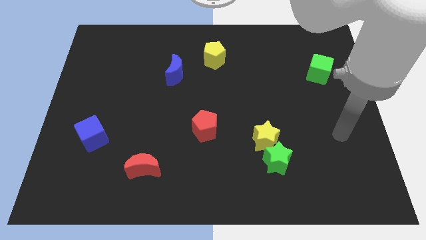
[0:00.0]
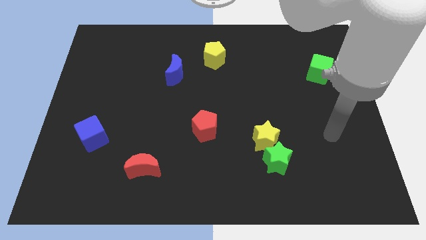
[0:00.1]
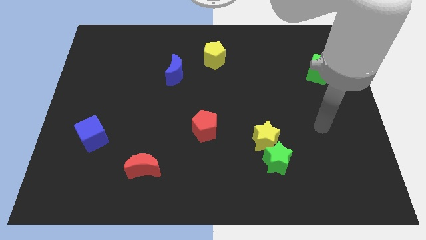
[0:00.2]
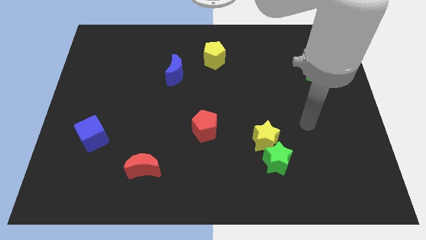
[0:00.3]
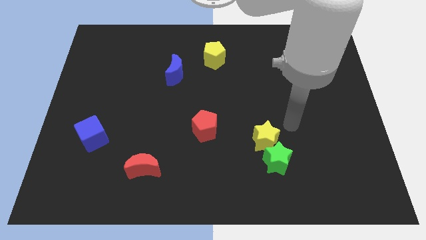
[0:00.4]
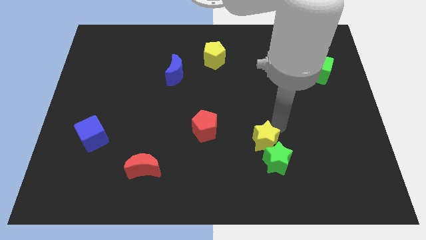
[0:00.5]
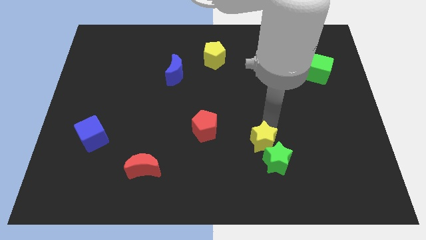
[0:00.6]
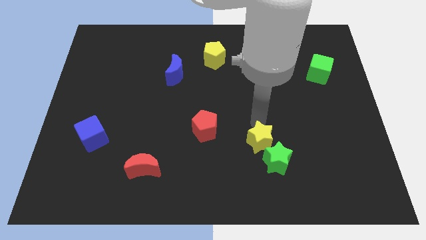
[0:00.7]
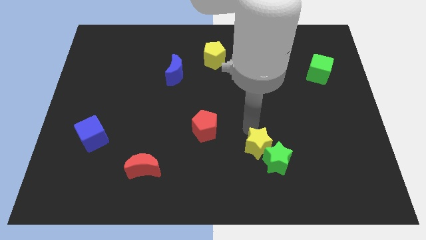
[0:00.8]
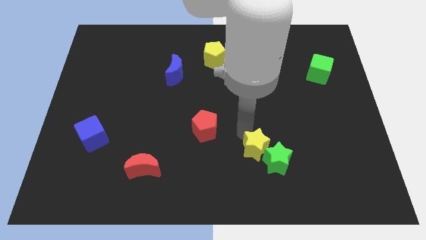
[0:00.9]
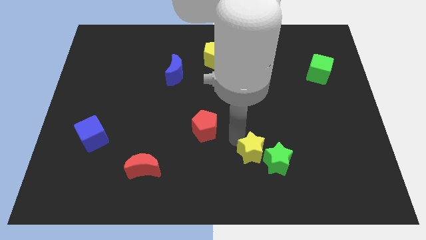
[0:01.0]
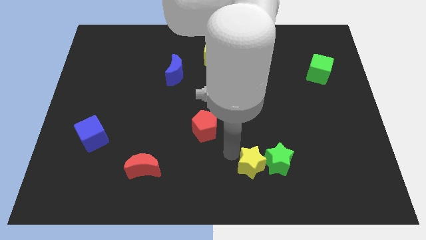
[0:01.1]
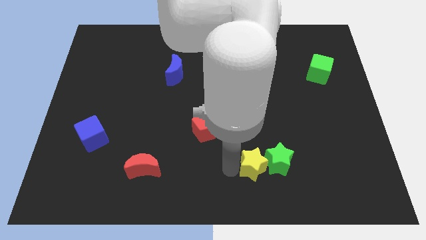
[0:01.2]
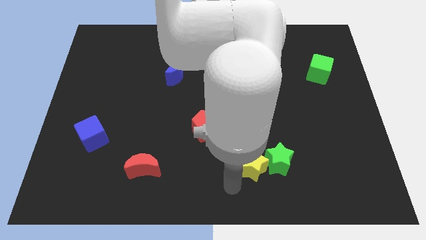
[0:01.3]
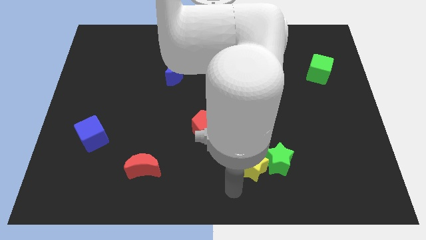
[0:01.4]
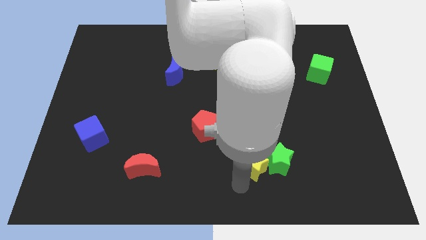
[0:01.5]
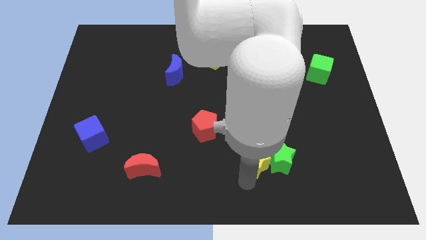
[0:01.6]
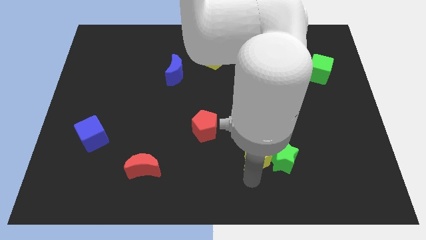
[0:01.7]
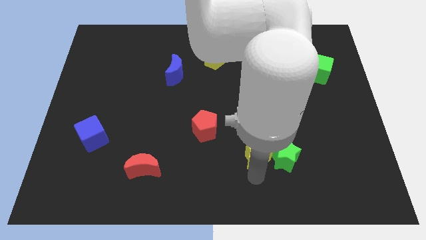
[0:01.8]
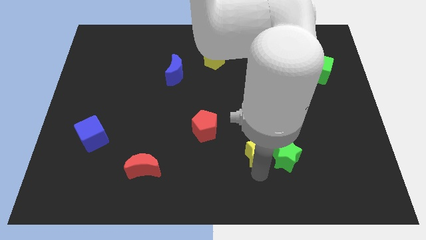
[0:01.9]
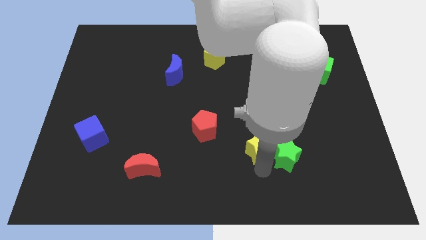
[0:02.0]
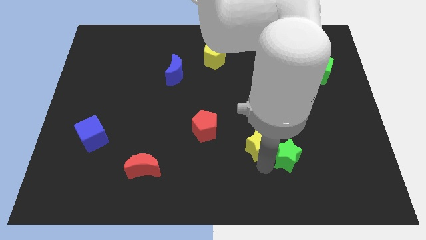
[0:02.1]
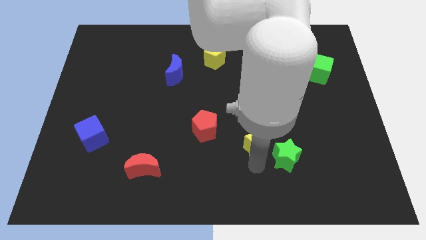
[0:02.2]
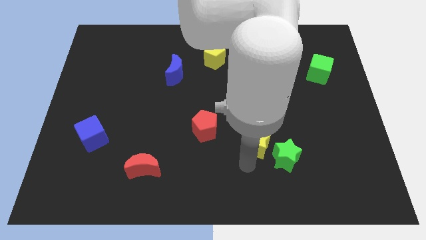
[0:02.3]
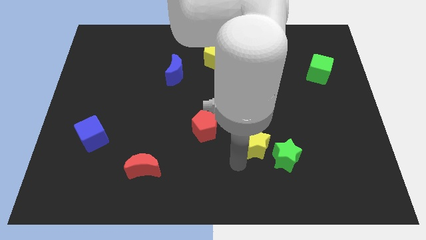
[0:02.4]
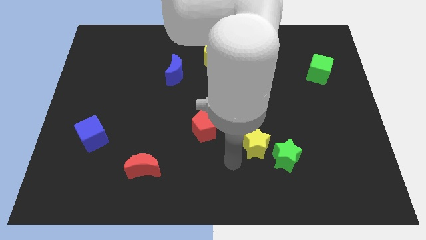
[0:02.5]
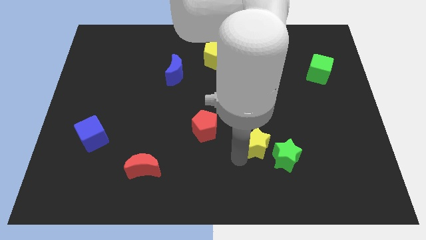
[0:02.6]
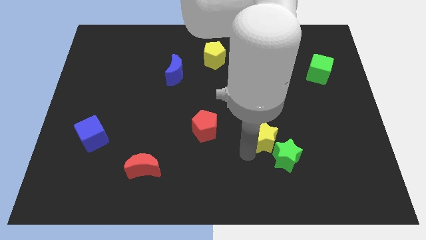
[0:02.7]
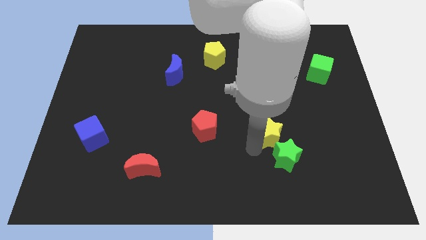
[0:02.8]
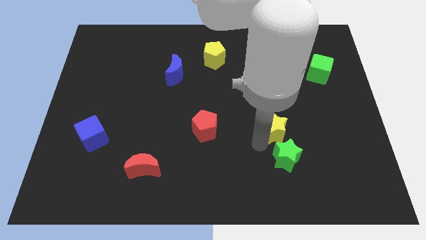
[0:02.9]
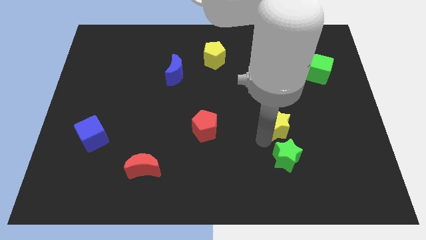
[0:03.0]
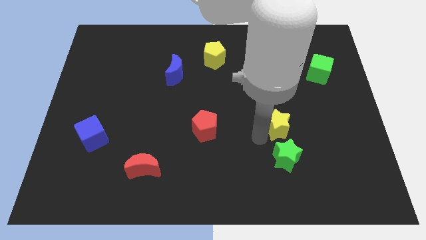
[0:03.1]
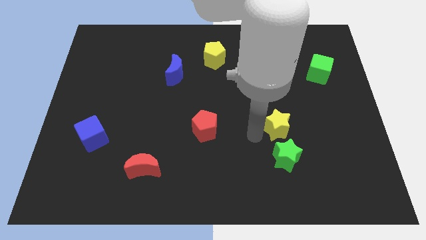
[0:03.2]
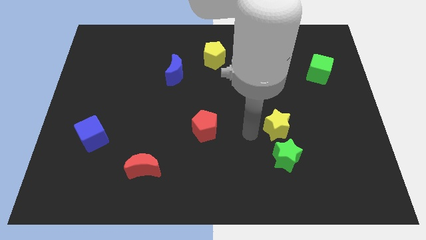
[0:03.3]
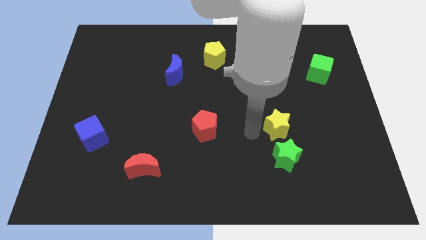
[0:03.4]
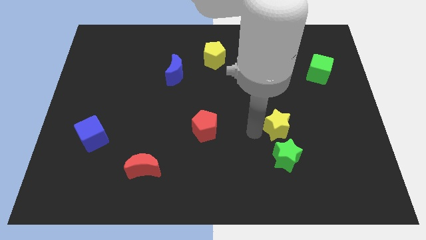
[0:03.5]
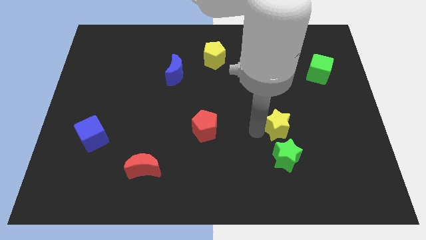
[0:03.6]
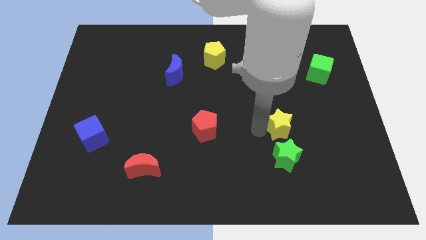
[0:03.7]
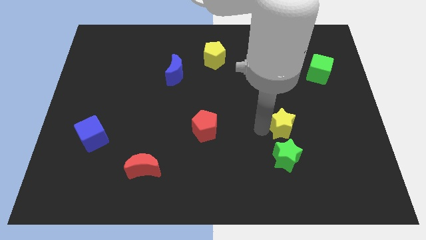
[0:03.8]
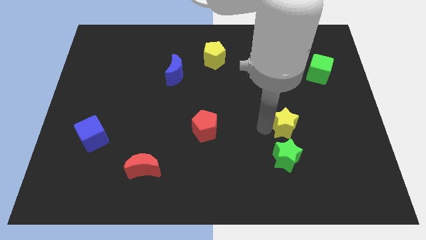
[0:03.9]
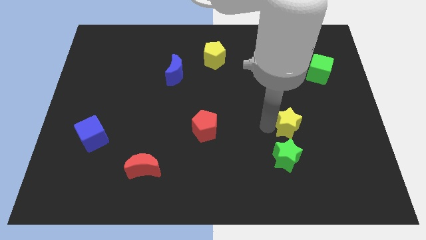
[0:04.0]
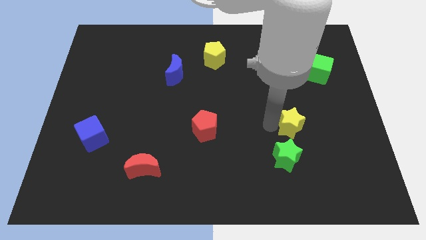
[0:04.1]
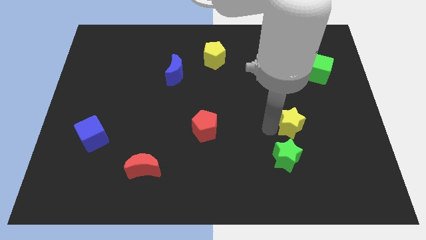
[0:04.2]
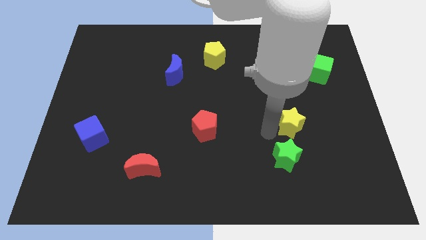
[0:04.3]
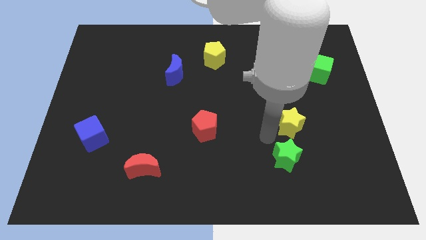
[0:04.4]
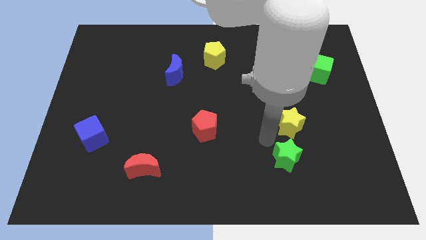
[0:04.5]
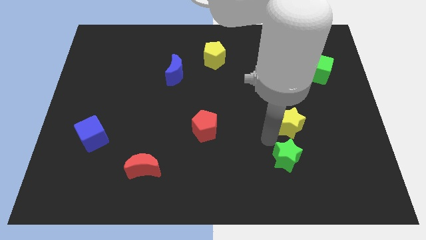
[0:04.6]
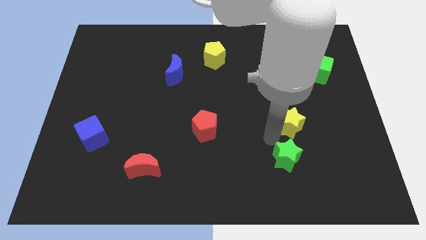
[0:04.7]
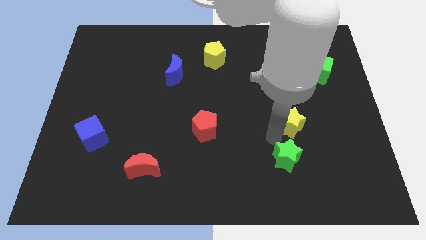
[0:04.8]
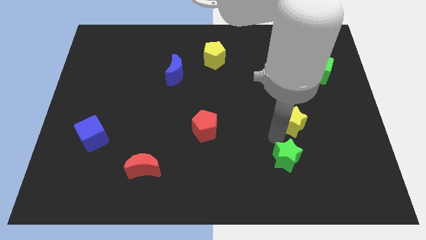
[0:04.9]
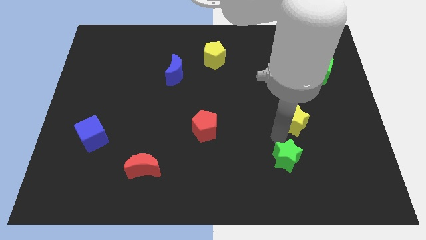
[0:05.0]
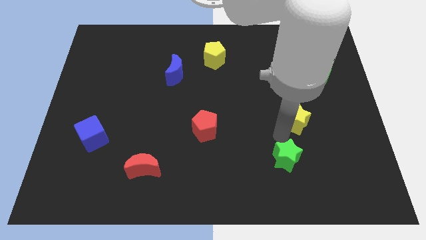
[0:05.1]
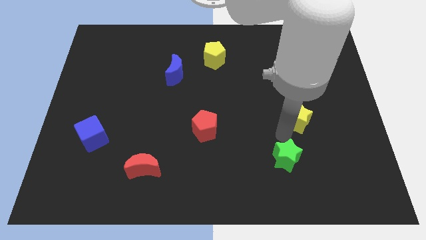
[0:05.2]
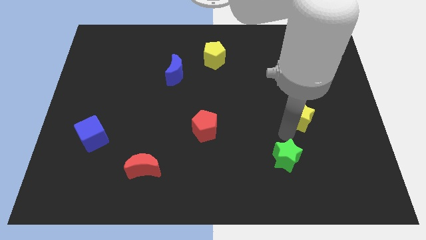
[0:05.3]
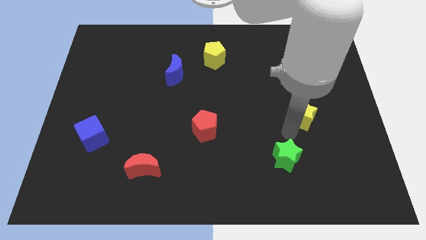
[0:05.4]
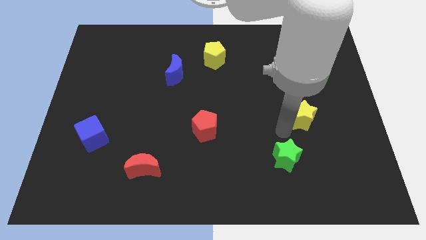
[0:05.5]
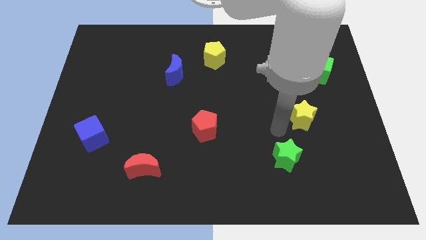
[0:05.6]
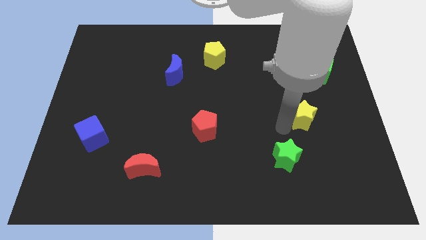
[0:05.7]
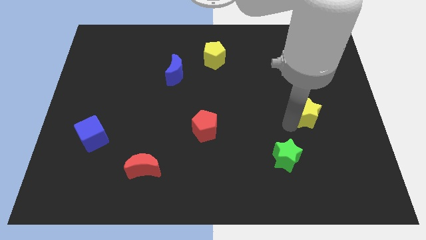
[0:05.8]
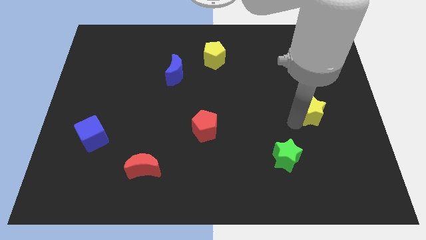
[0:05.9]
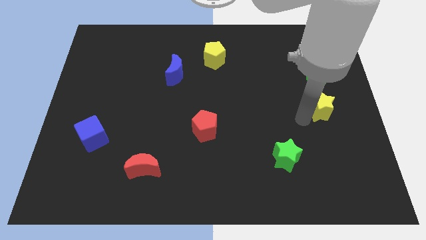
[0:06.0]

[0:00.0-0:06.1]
move the yellow star to the right side of the board
